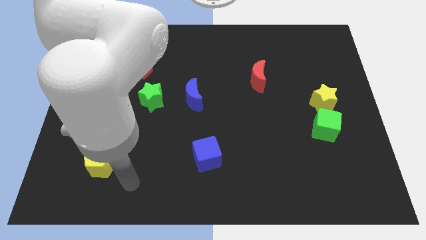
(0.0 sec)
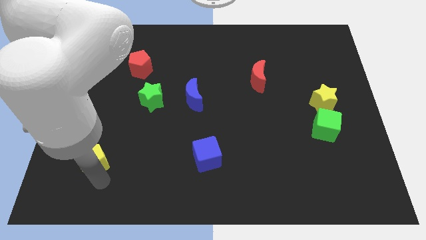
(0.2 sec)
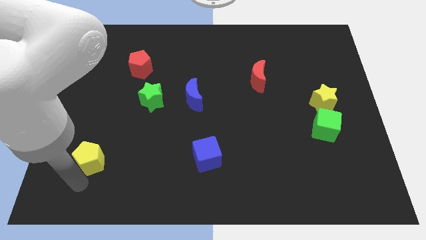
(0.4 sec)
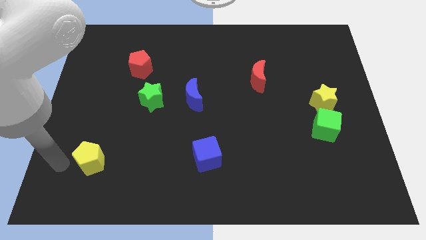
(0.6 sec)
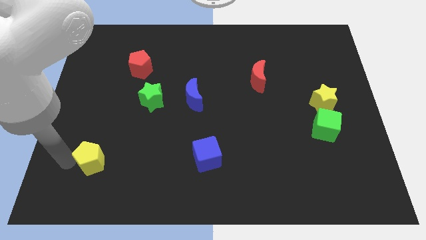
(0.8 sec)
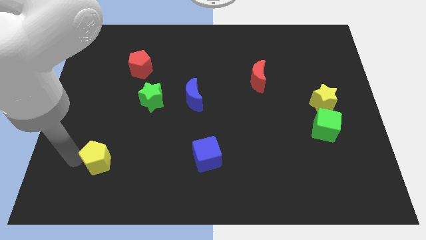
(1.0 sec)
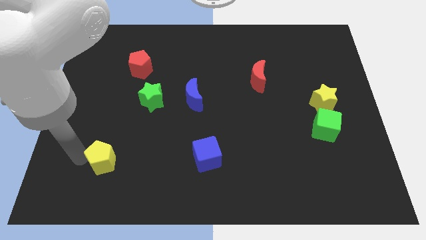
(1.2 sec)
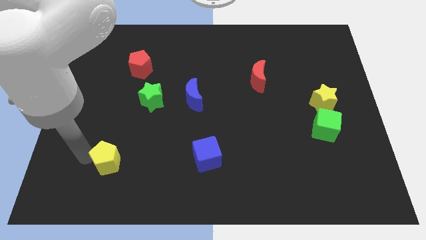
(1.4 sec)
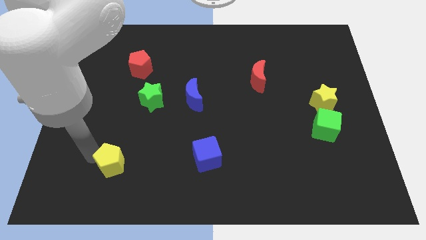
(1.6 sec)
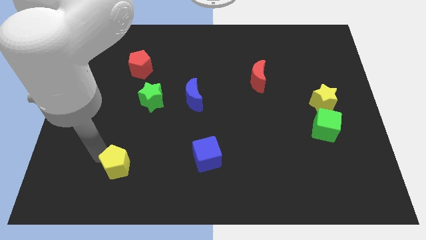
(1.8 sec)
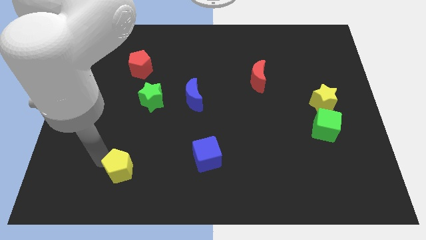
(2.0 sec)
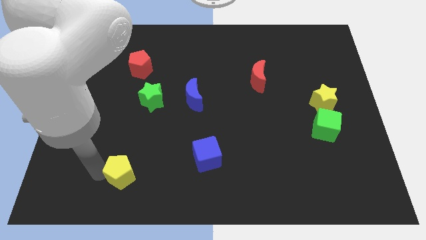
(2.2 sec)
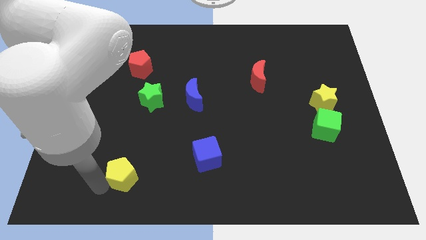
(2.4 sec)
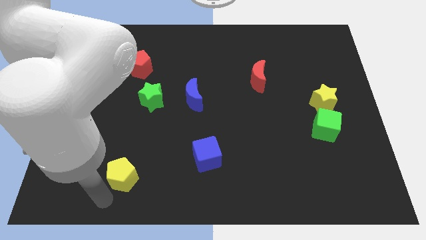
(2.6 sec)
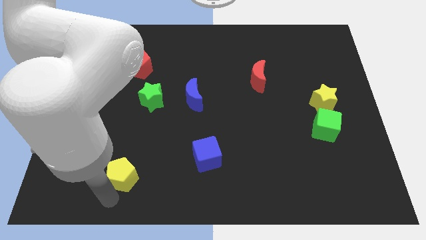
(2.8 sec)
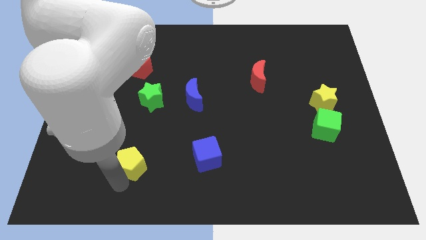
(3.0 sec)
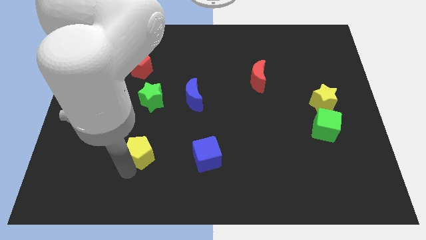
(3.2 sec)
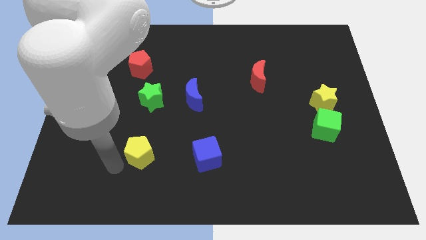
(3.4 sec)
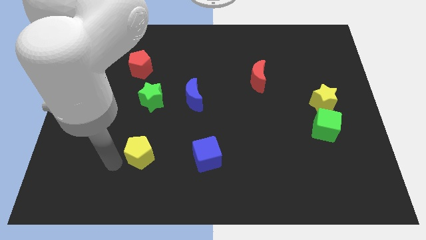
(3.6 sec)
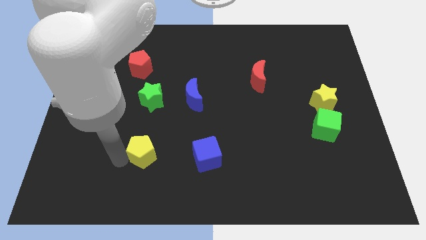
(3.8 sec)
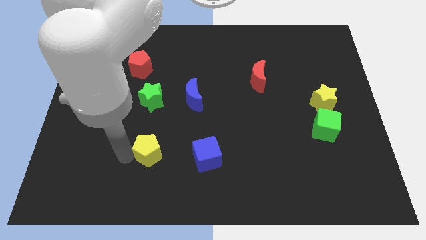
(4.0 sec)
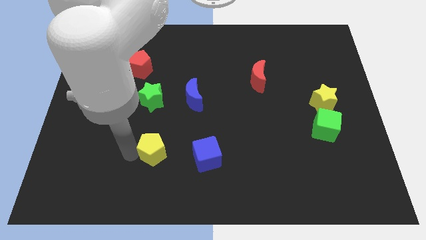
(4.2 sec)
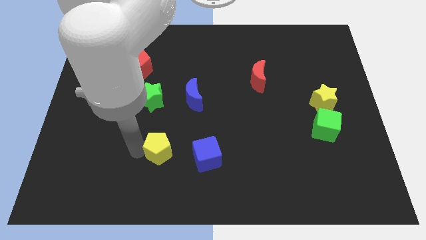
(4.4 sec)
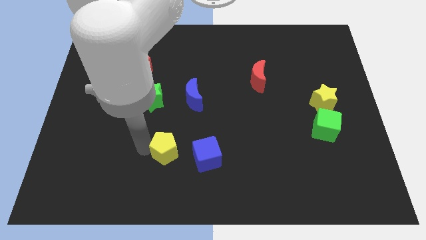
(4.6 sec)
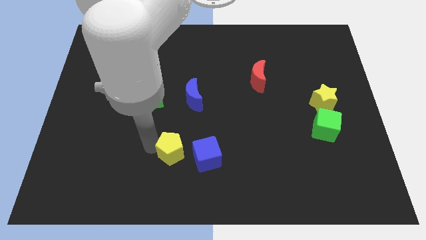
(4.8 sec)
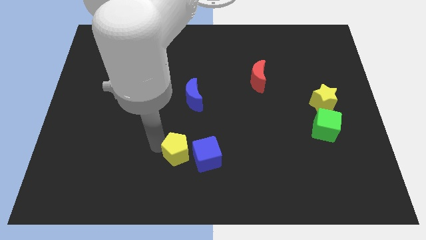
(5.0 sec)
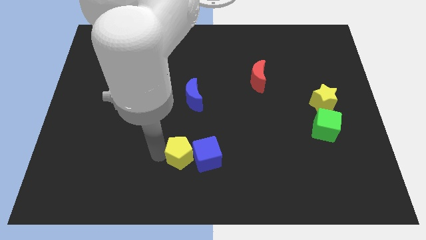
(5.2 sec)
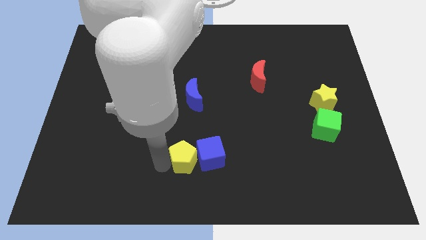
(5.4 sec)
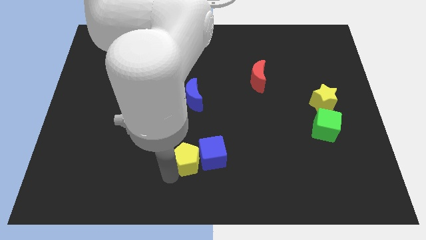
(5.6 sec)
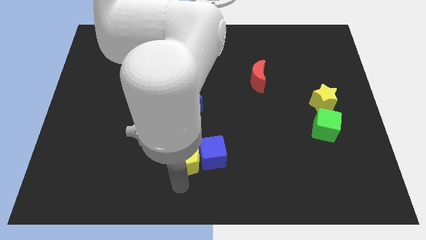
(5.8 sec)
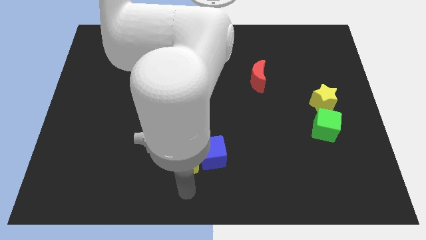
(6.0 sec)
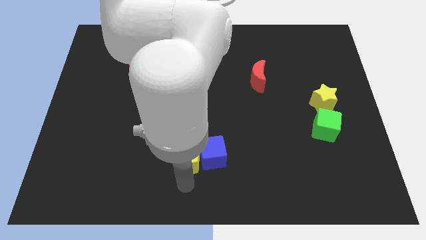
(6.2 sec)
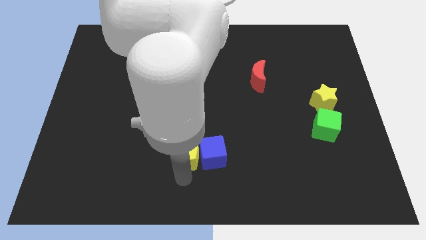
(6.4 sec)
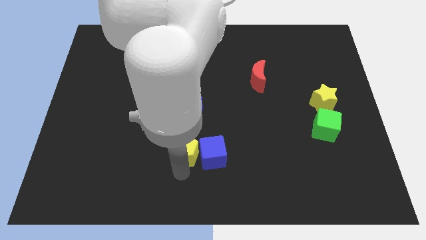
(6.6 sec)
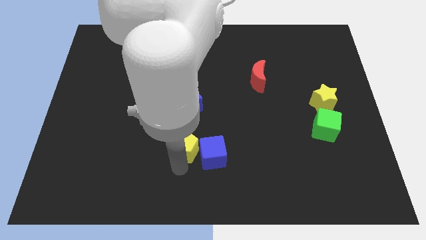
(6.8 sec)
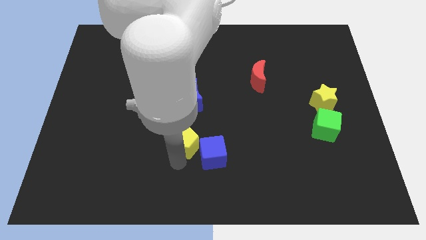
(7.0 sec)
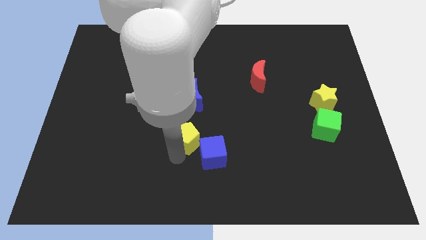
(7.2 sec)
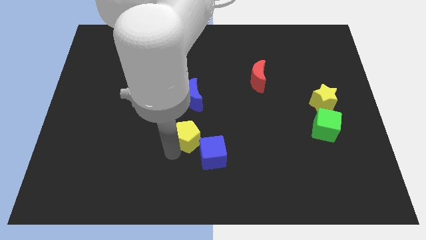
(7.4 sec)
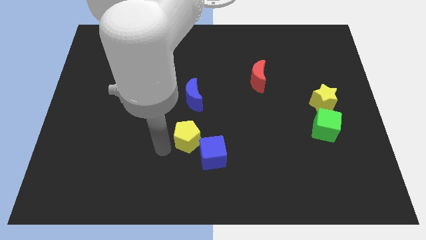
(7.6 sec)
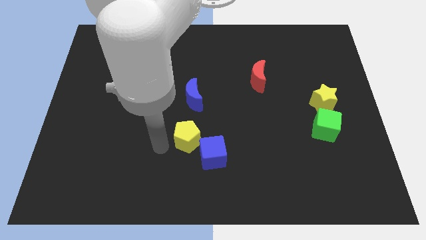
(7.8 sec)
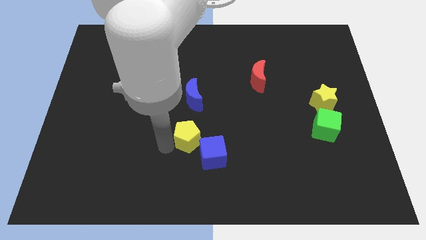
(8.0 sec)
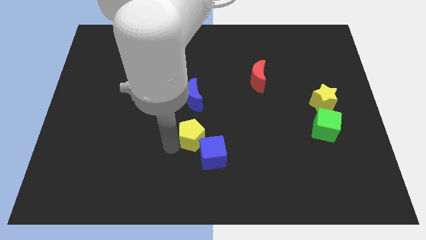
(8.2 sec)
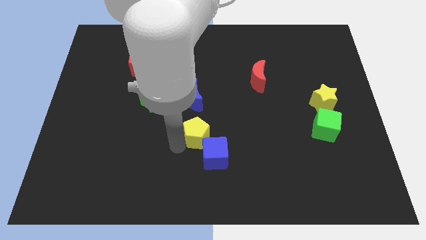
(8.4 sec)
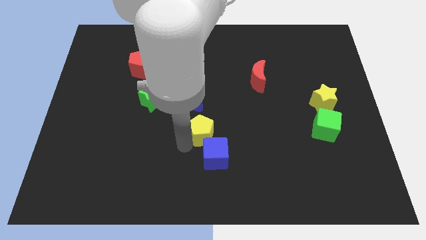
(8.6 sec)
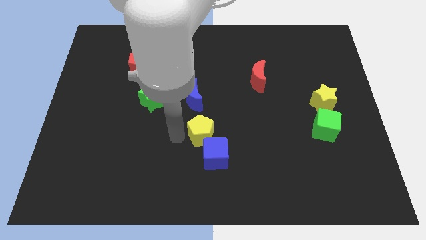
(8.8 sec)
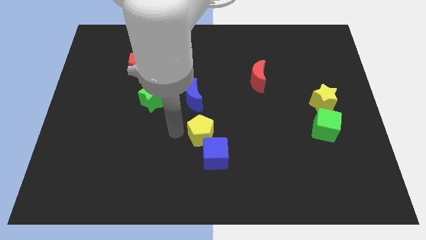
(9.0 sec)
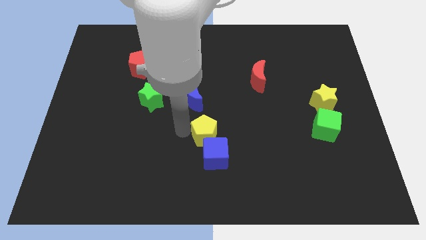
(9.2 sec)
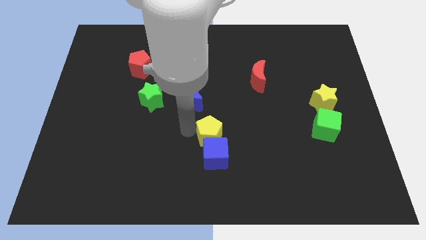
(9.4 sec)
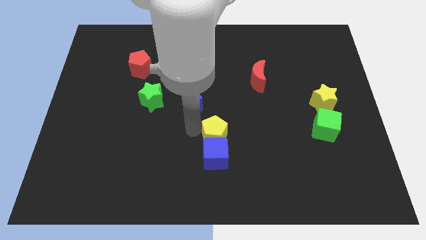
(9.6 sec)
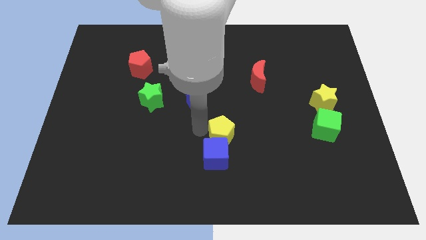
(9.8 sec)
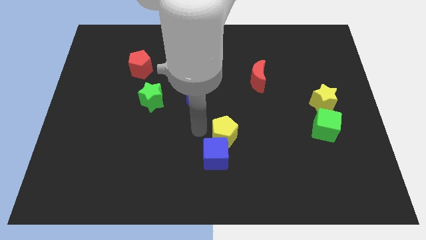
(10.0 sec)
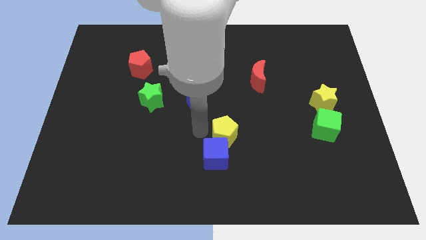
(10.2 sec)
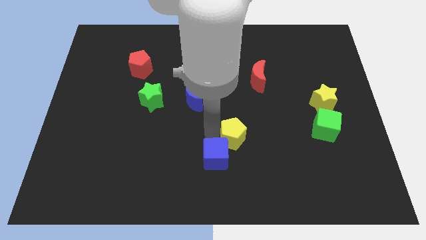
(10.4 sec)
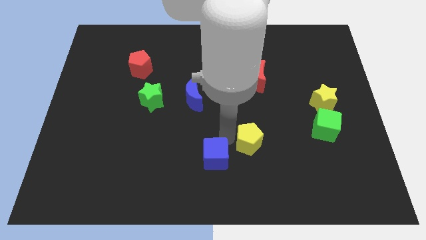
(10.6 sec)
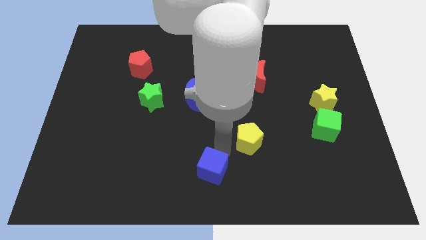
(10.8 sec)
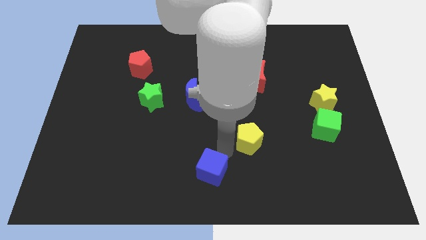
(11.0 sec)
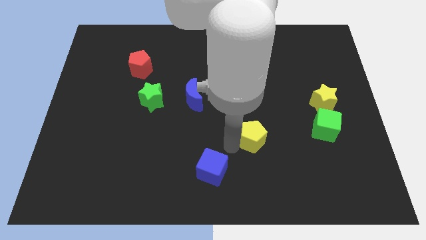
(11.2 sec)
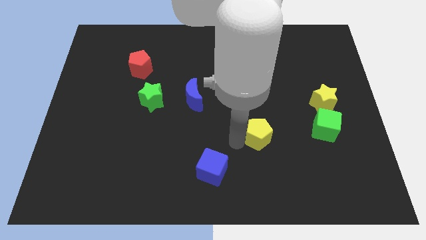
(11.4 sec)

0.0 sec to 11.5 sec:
slide the yellow pentagon to the left side of the green cube

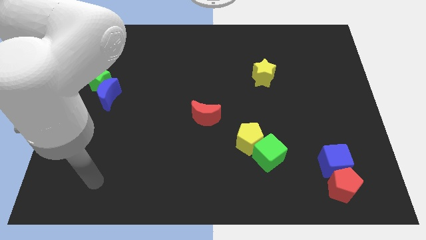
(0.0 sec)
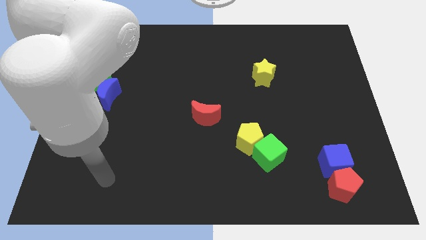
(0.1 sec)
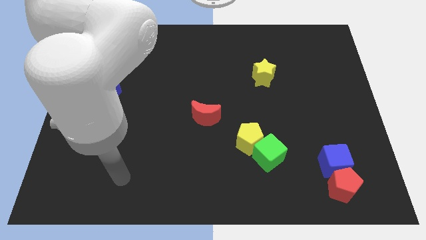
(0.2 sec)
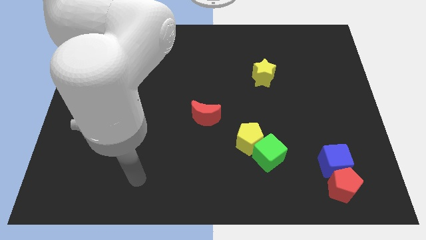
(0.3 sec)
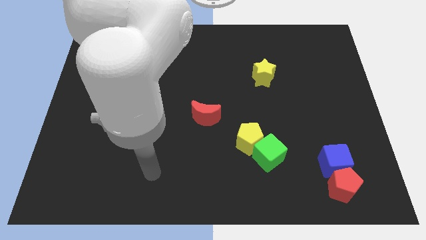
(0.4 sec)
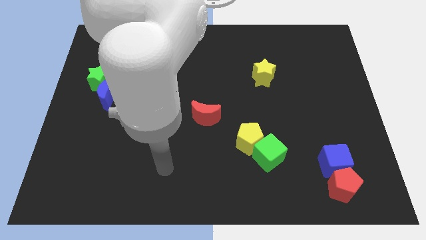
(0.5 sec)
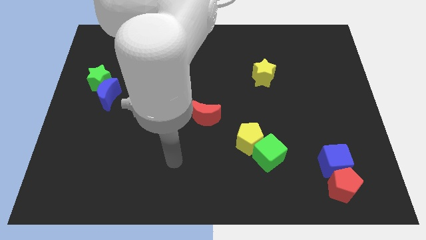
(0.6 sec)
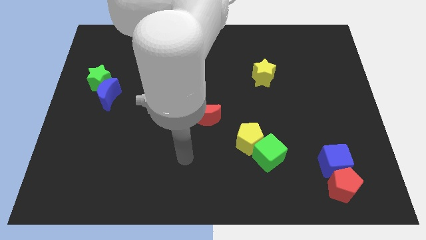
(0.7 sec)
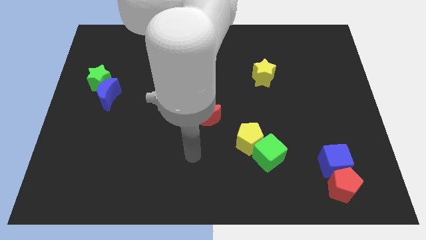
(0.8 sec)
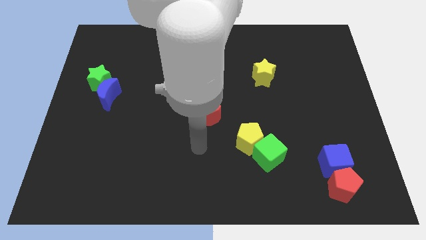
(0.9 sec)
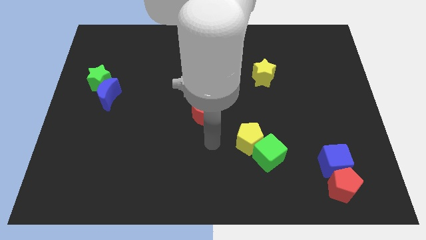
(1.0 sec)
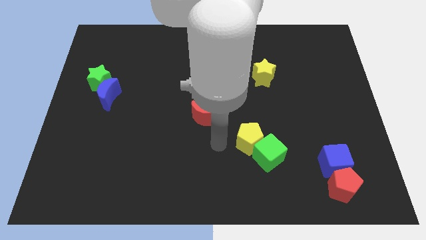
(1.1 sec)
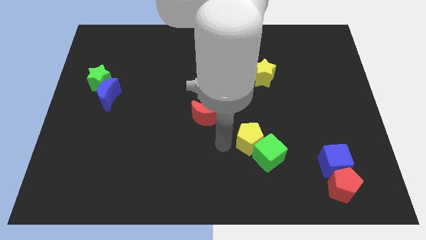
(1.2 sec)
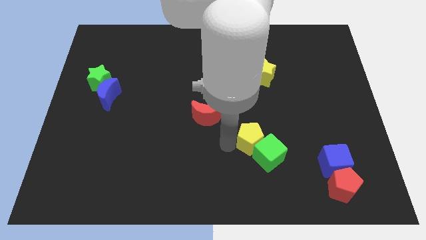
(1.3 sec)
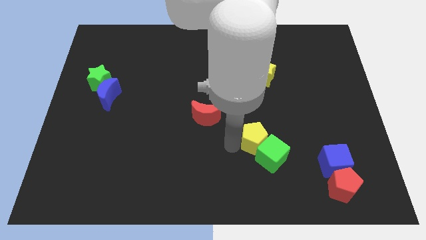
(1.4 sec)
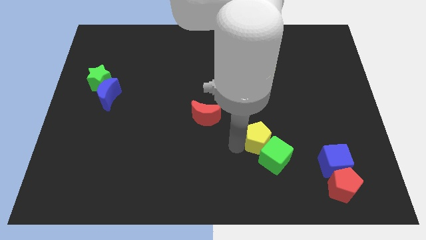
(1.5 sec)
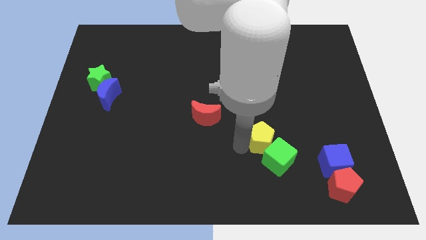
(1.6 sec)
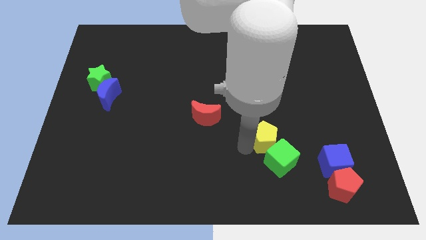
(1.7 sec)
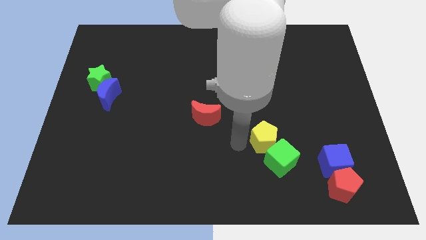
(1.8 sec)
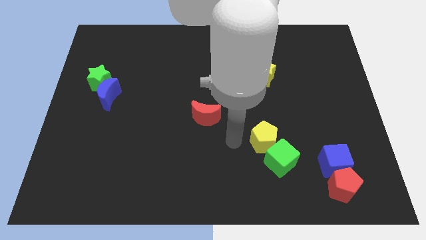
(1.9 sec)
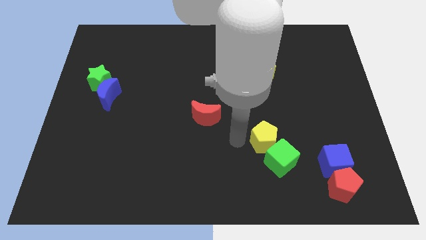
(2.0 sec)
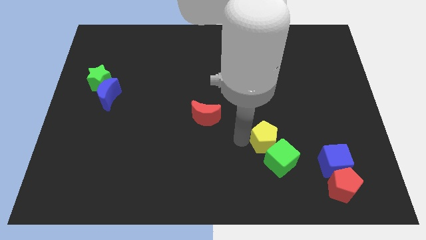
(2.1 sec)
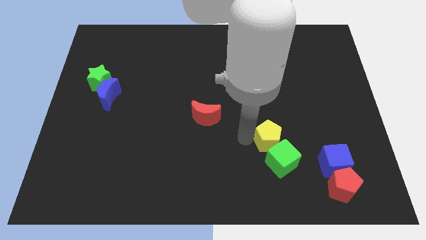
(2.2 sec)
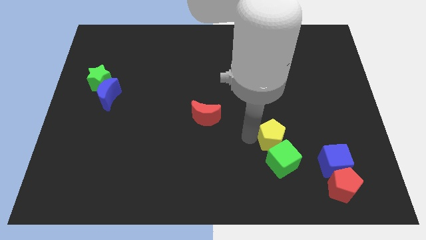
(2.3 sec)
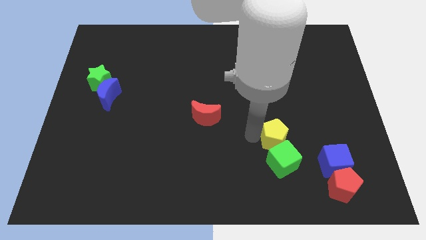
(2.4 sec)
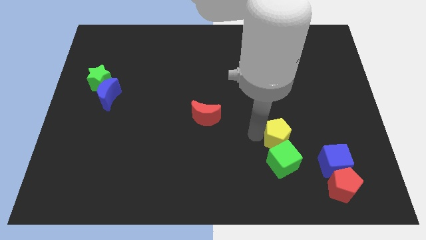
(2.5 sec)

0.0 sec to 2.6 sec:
move the yellow pentagon to the top right of the green cube
